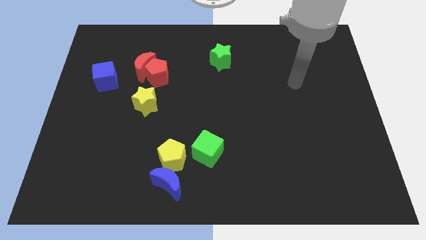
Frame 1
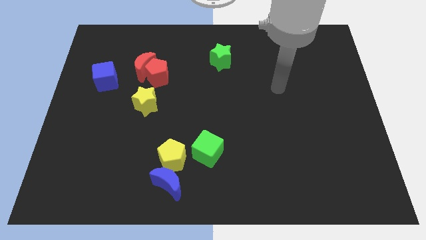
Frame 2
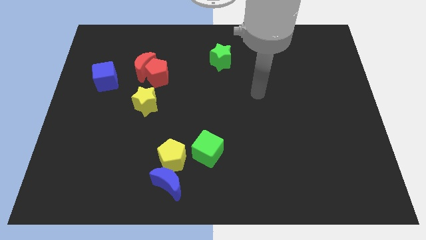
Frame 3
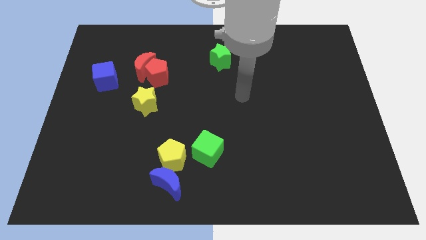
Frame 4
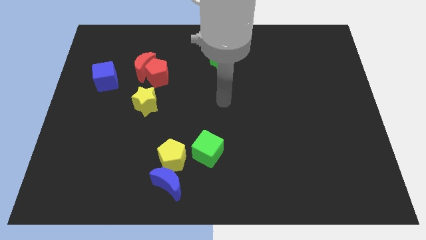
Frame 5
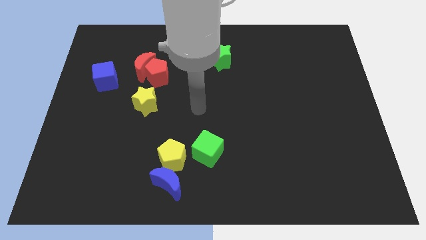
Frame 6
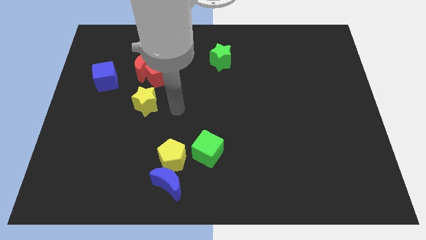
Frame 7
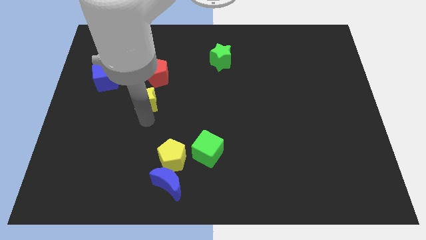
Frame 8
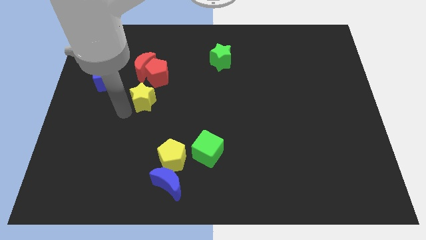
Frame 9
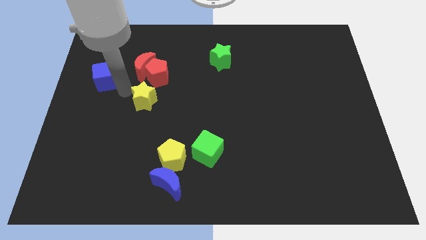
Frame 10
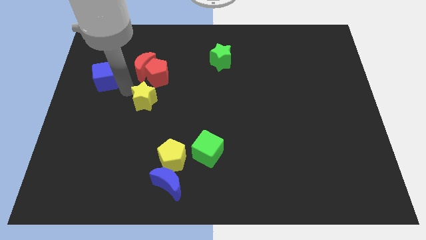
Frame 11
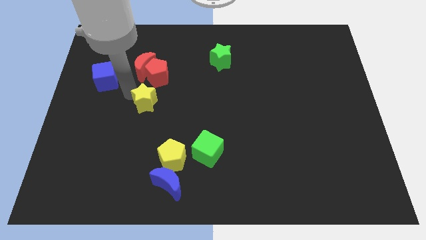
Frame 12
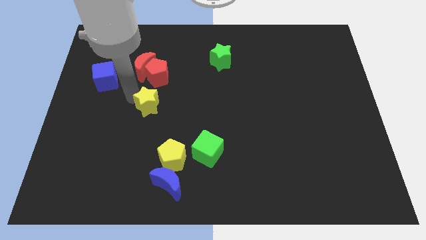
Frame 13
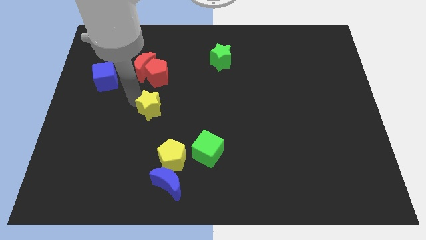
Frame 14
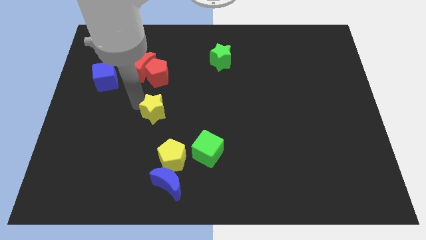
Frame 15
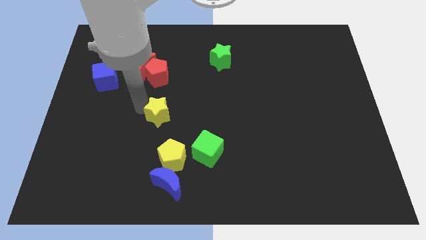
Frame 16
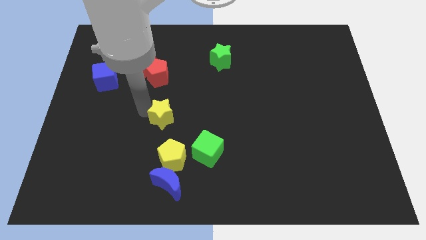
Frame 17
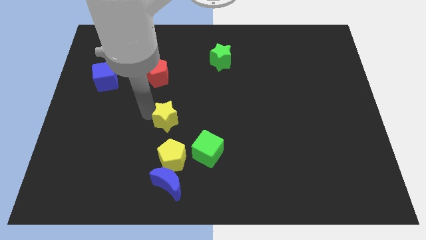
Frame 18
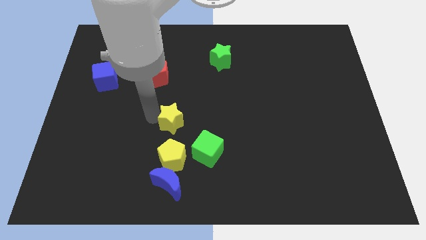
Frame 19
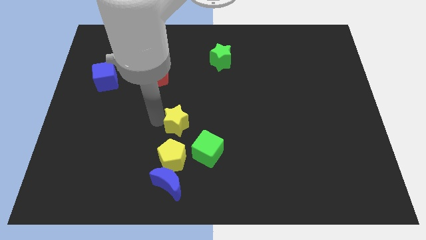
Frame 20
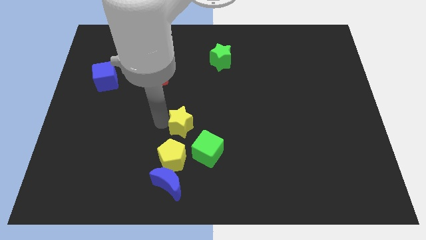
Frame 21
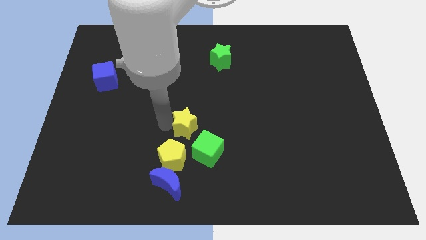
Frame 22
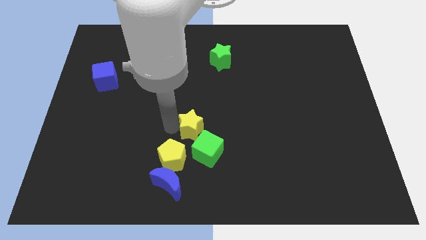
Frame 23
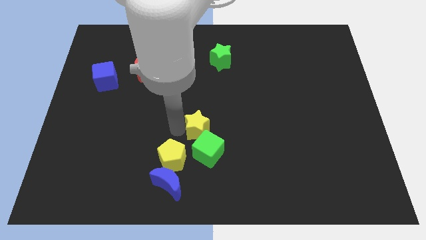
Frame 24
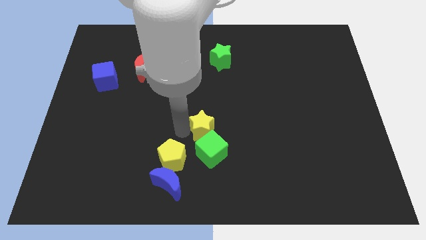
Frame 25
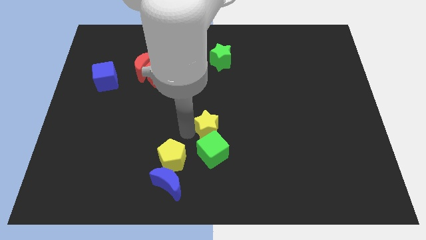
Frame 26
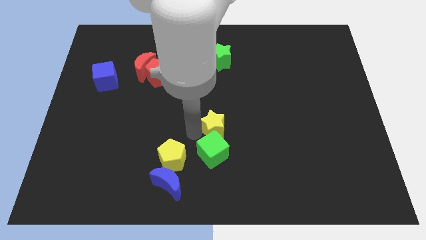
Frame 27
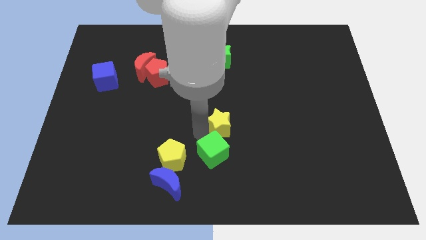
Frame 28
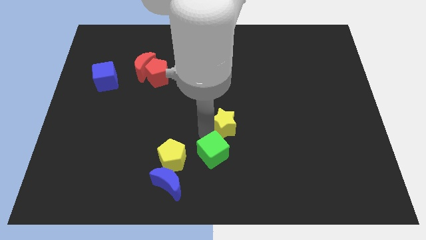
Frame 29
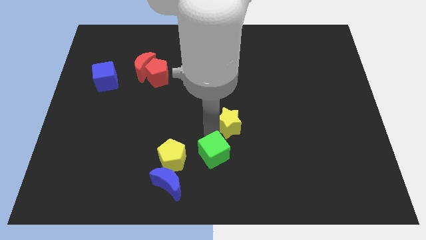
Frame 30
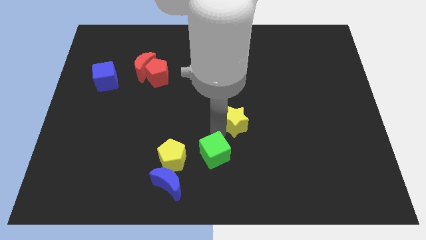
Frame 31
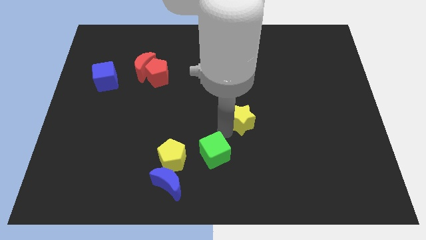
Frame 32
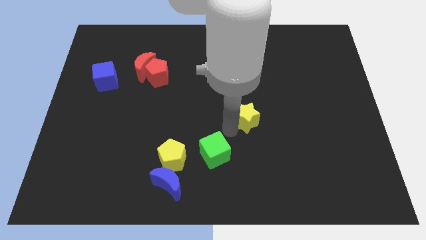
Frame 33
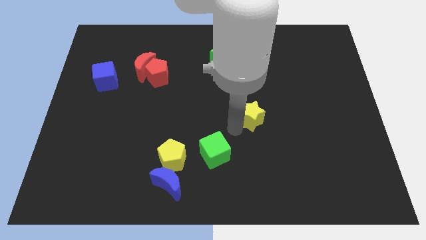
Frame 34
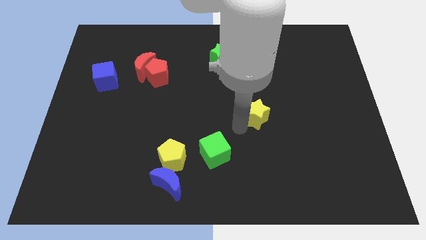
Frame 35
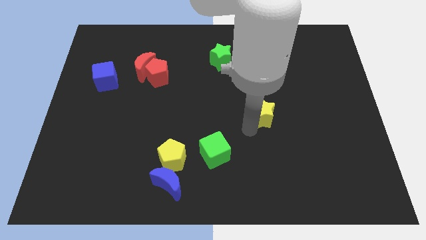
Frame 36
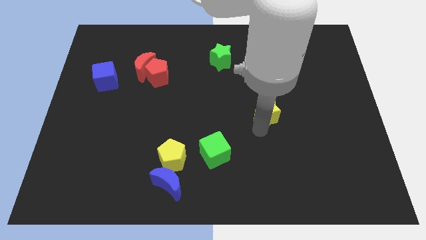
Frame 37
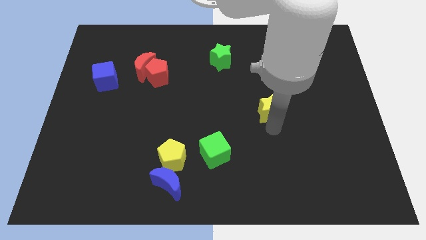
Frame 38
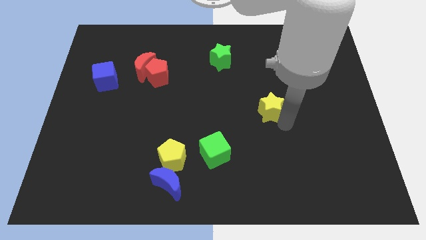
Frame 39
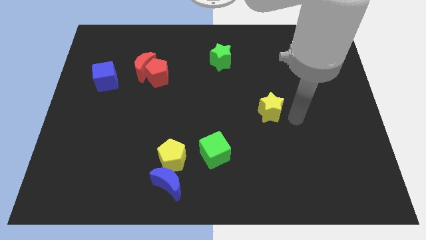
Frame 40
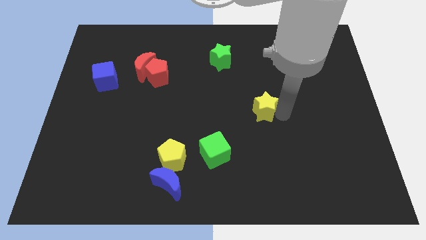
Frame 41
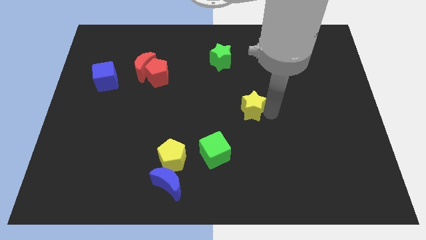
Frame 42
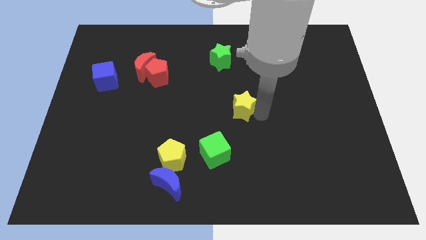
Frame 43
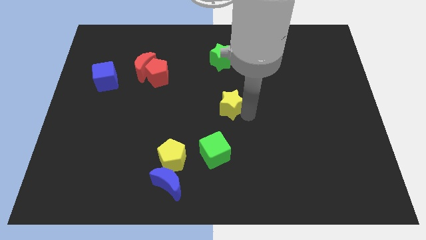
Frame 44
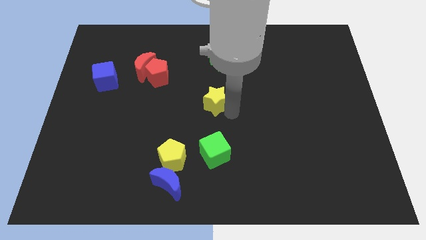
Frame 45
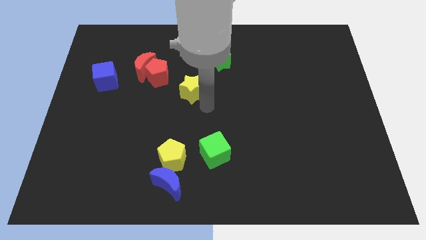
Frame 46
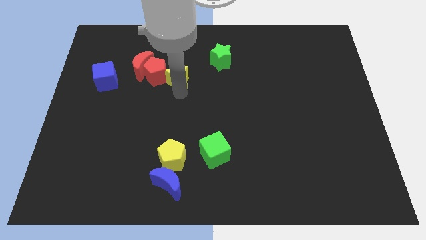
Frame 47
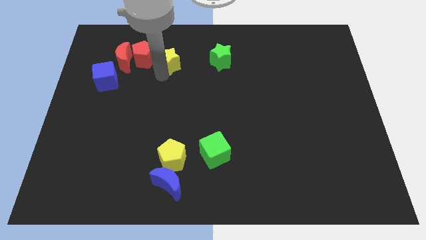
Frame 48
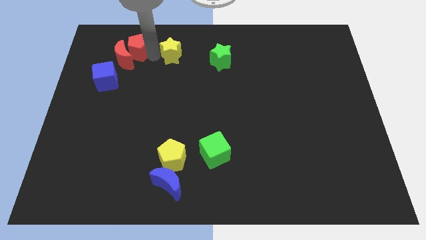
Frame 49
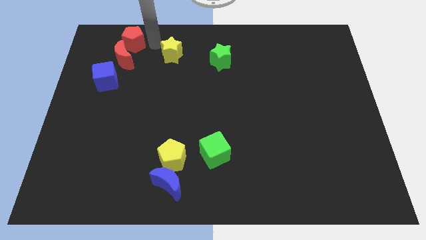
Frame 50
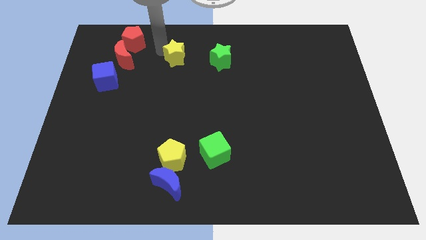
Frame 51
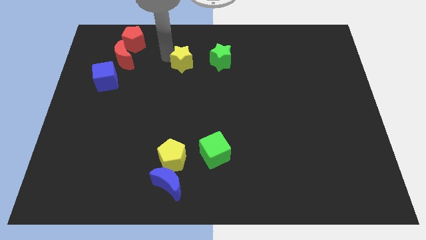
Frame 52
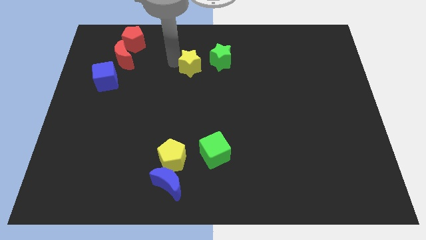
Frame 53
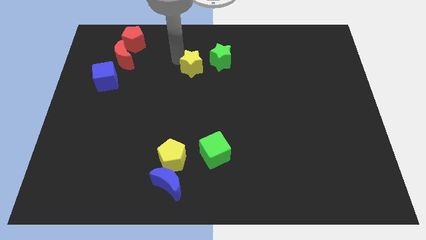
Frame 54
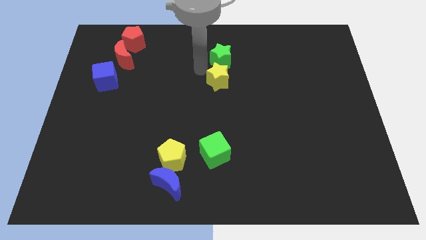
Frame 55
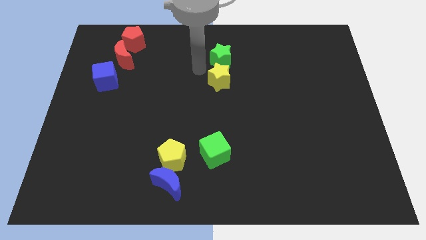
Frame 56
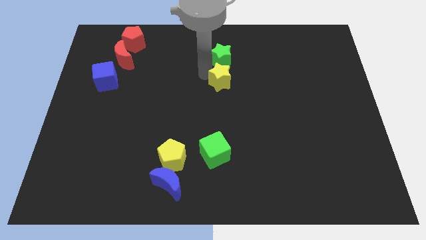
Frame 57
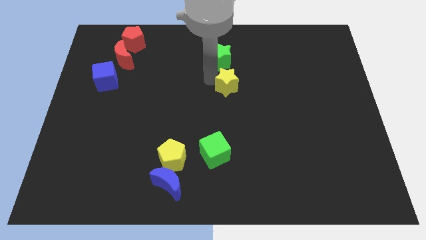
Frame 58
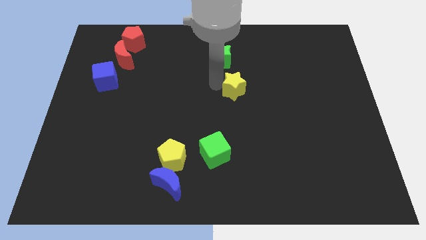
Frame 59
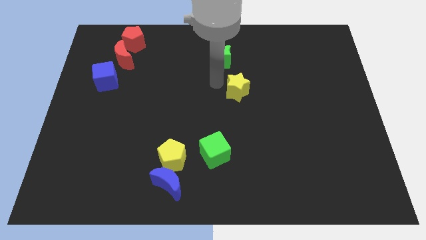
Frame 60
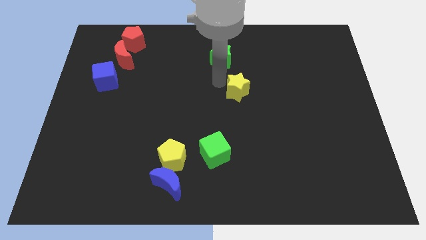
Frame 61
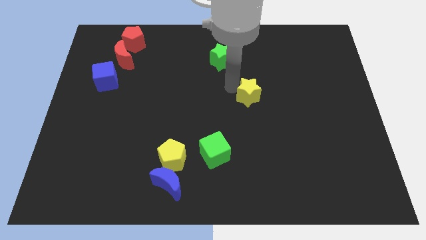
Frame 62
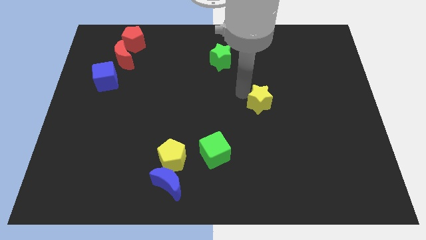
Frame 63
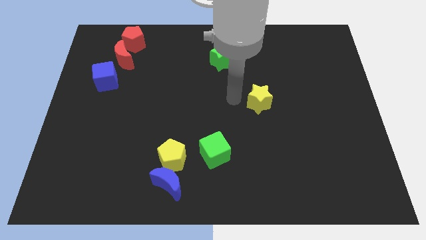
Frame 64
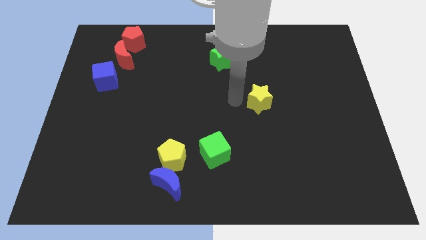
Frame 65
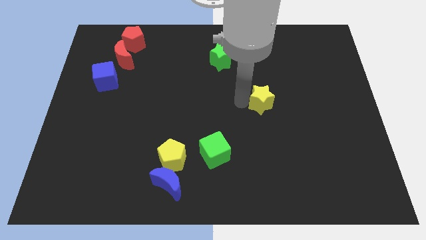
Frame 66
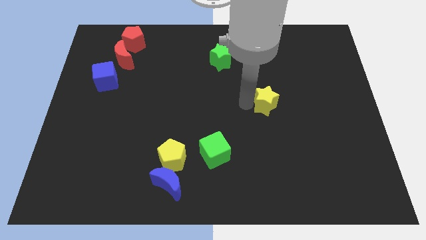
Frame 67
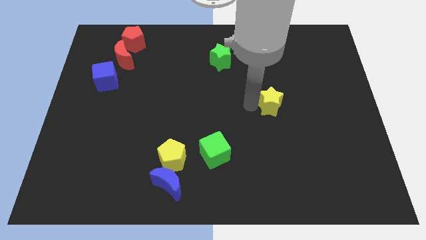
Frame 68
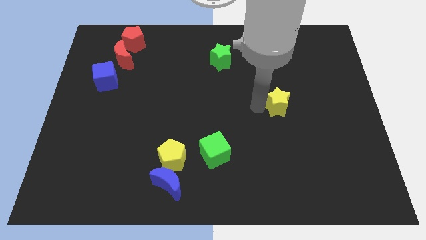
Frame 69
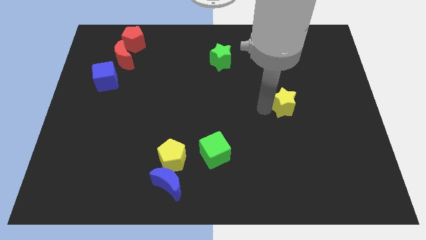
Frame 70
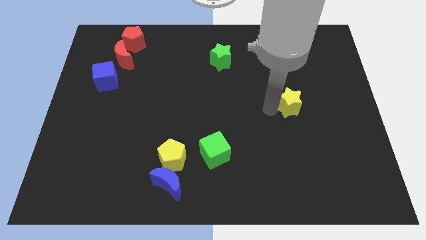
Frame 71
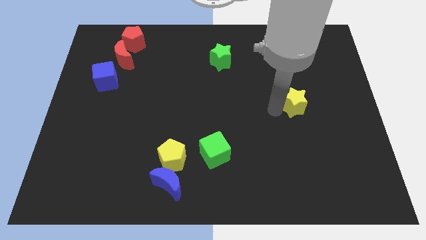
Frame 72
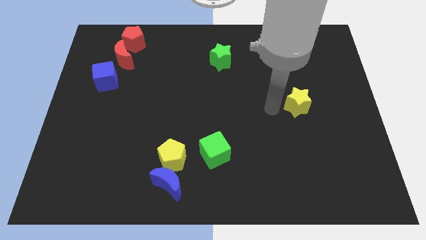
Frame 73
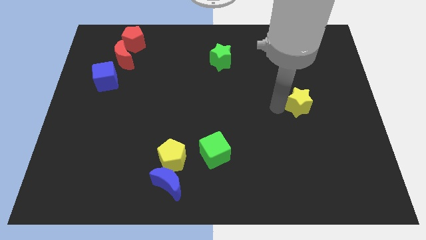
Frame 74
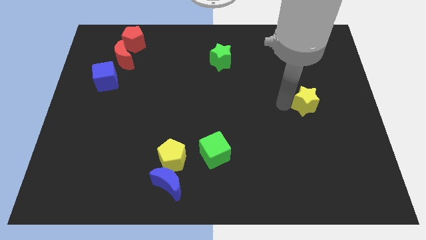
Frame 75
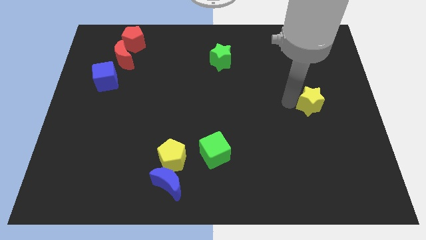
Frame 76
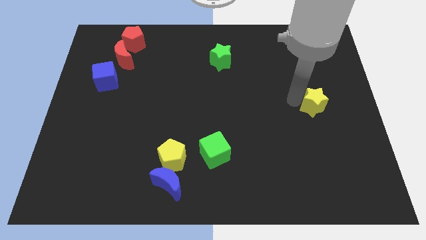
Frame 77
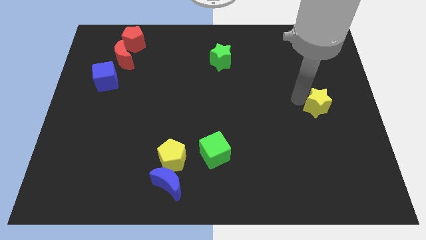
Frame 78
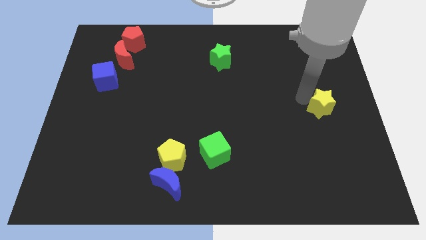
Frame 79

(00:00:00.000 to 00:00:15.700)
move the yellow star to the right side
